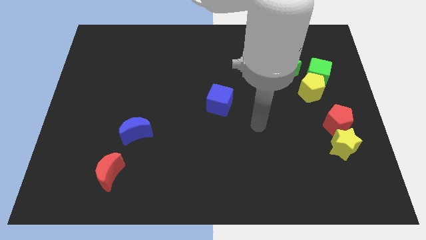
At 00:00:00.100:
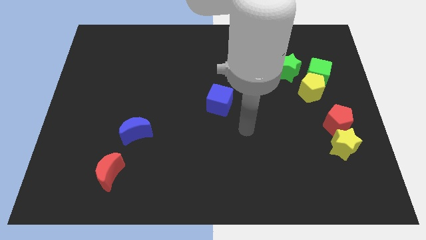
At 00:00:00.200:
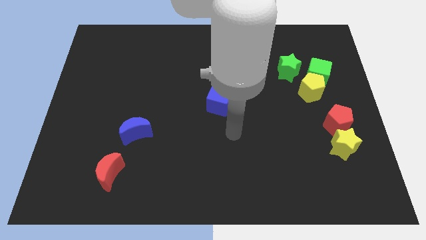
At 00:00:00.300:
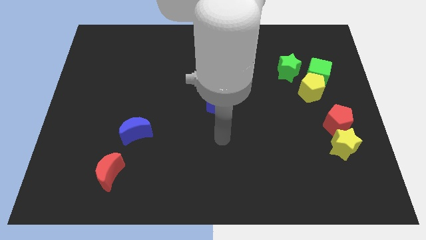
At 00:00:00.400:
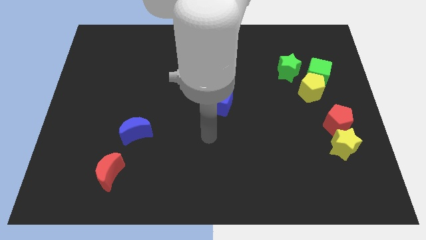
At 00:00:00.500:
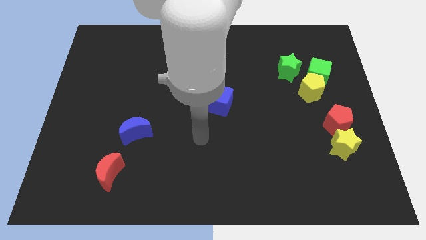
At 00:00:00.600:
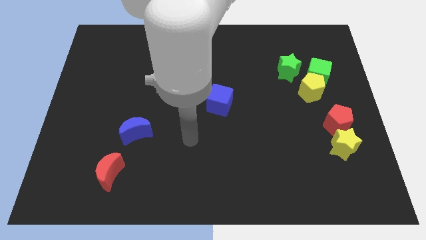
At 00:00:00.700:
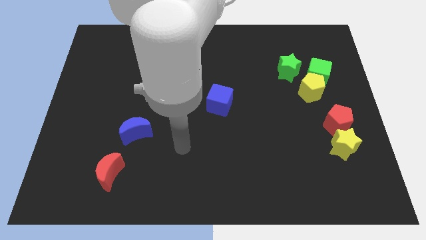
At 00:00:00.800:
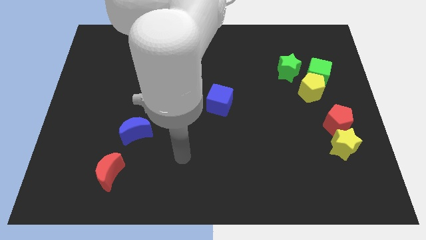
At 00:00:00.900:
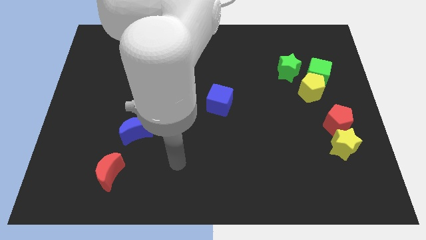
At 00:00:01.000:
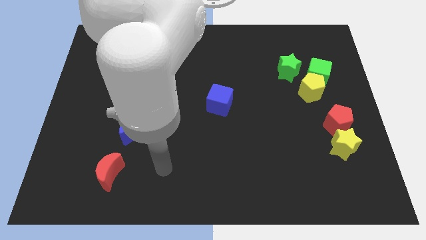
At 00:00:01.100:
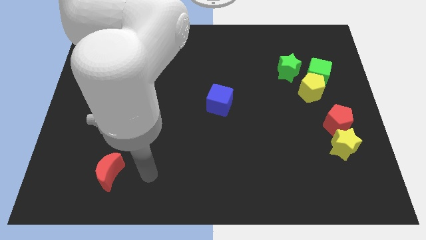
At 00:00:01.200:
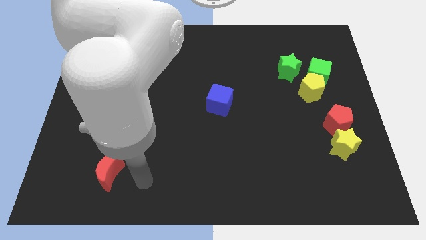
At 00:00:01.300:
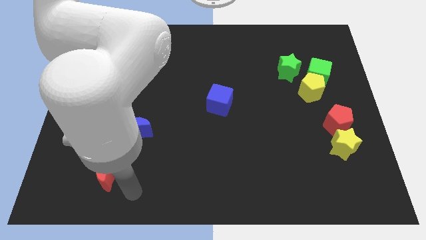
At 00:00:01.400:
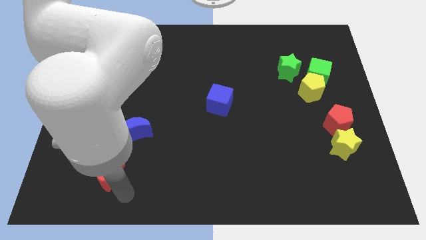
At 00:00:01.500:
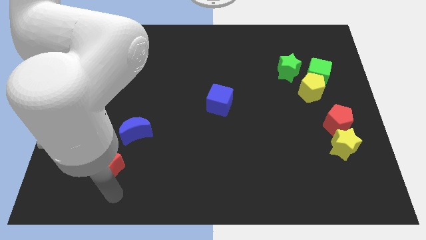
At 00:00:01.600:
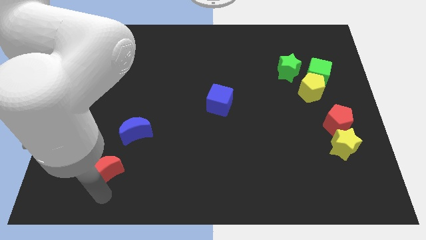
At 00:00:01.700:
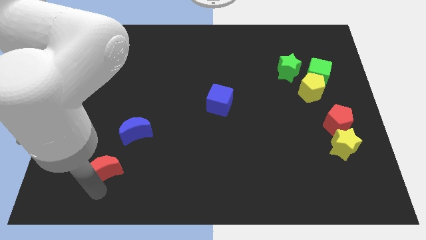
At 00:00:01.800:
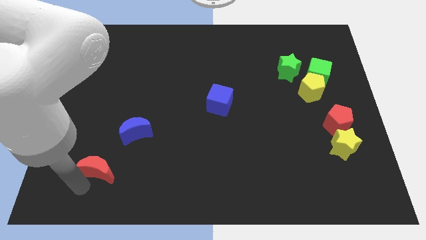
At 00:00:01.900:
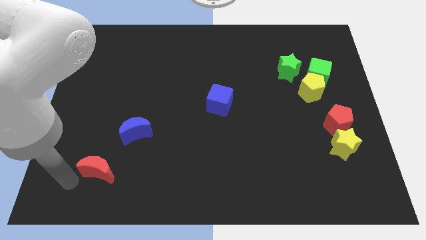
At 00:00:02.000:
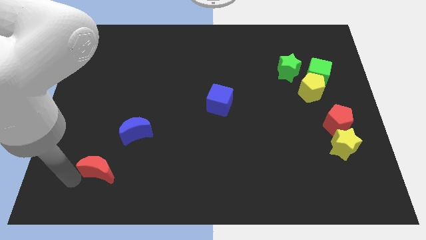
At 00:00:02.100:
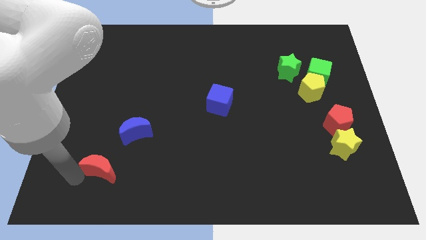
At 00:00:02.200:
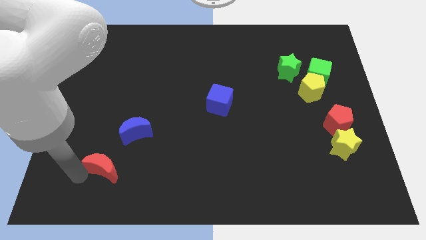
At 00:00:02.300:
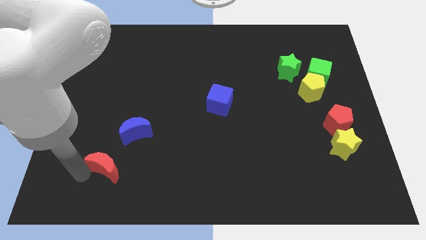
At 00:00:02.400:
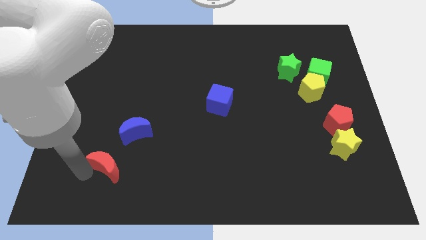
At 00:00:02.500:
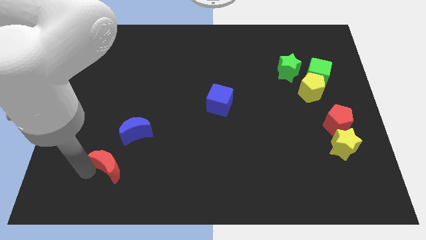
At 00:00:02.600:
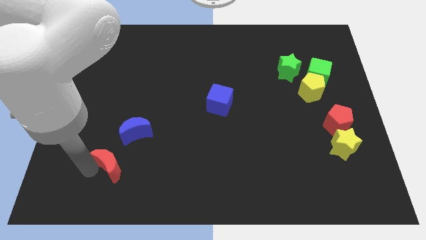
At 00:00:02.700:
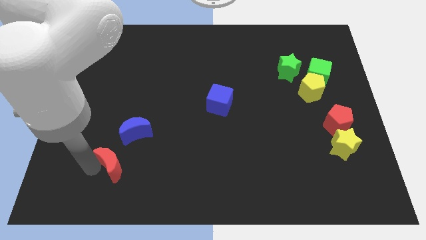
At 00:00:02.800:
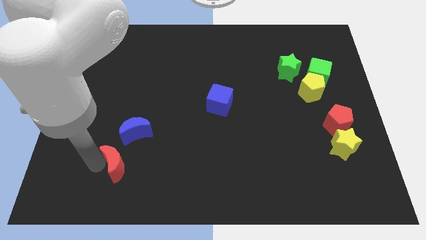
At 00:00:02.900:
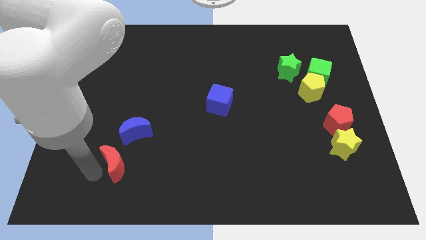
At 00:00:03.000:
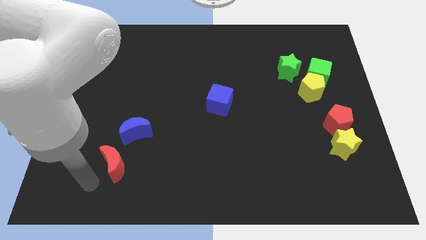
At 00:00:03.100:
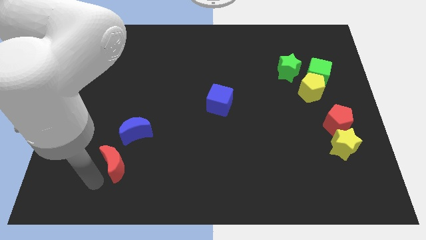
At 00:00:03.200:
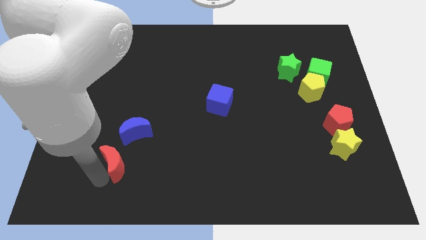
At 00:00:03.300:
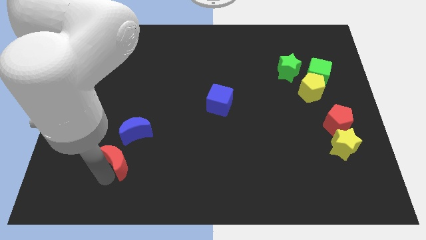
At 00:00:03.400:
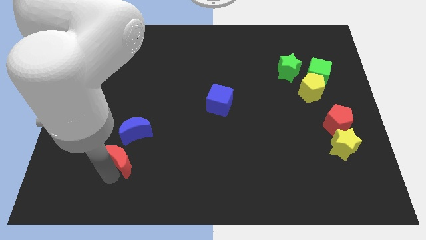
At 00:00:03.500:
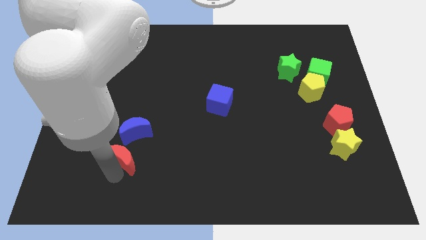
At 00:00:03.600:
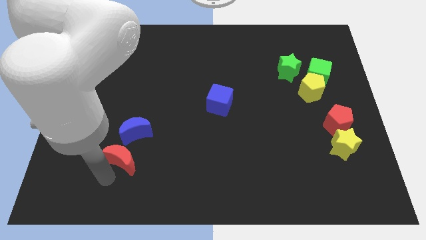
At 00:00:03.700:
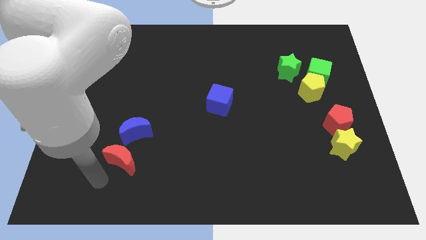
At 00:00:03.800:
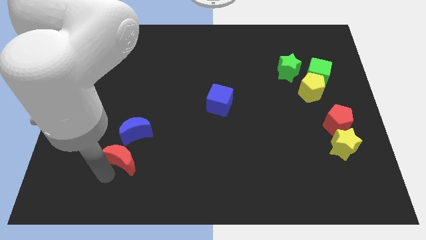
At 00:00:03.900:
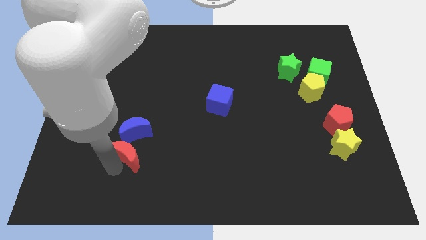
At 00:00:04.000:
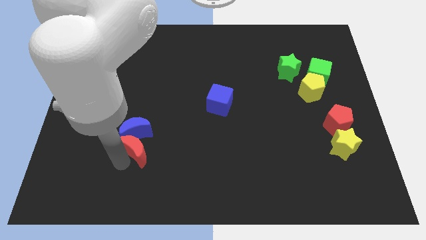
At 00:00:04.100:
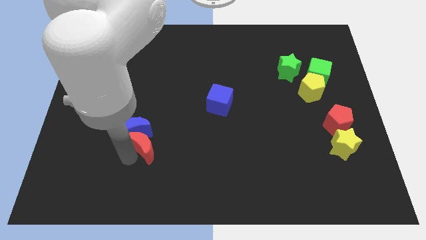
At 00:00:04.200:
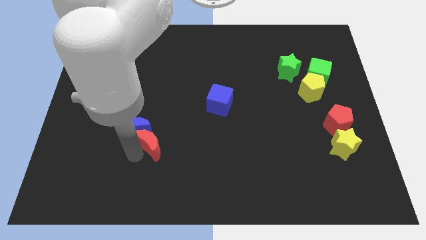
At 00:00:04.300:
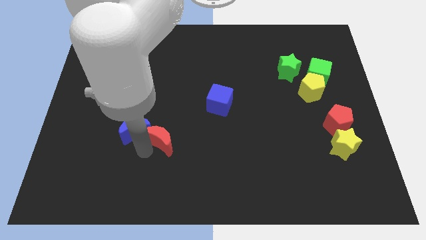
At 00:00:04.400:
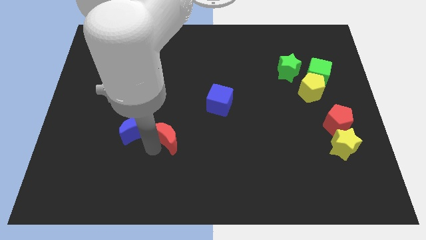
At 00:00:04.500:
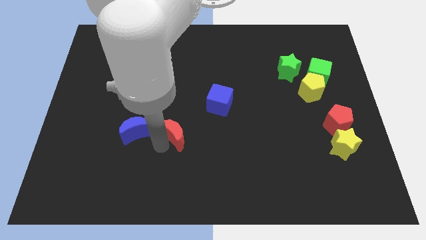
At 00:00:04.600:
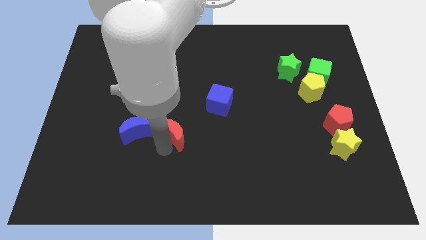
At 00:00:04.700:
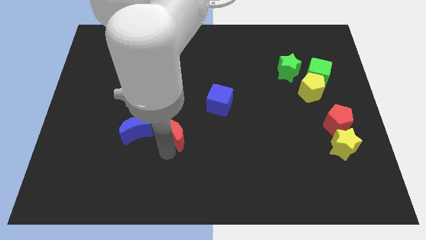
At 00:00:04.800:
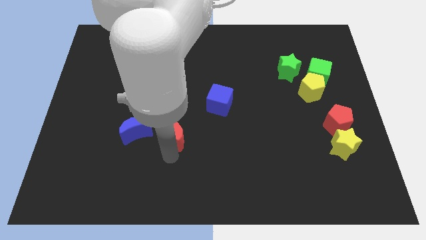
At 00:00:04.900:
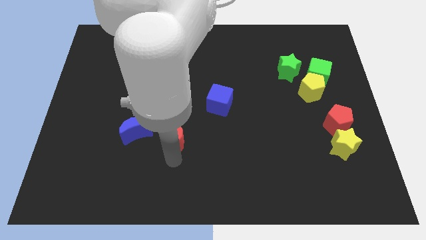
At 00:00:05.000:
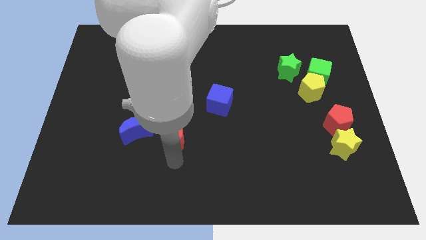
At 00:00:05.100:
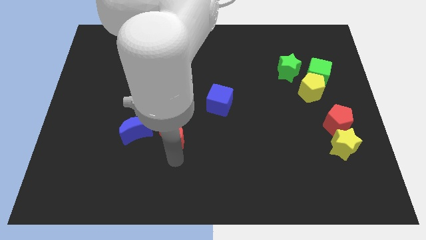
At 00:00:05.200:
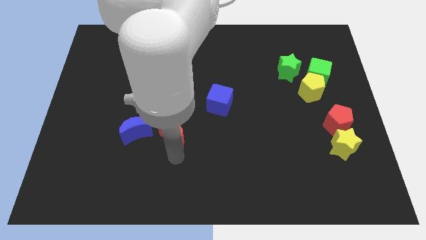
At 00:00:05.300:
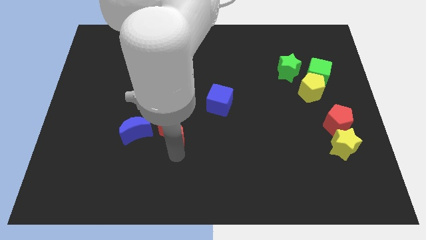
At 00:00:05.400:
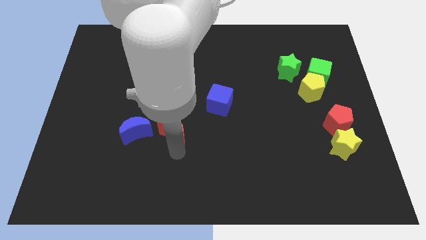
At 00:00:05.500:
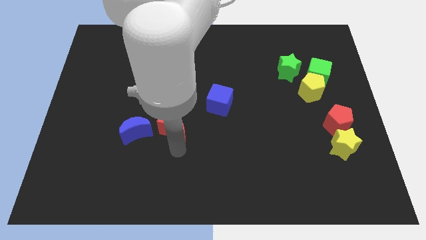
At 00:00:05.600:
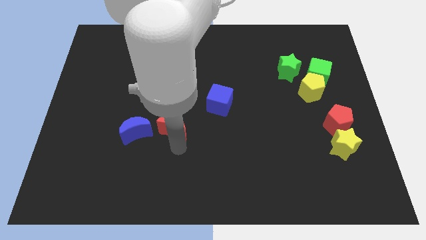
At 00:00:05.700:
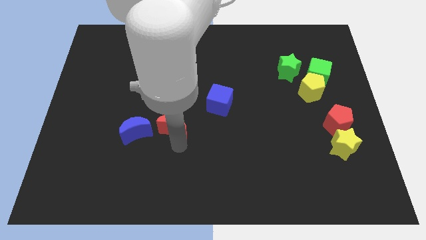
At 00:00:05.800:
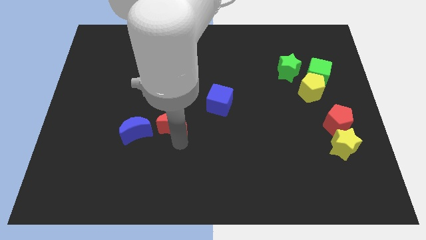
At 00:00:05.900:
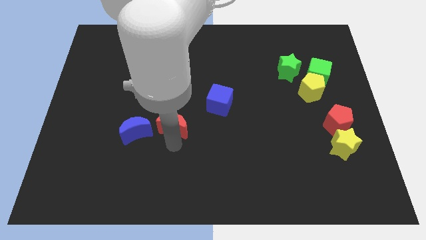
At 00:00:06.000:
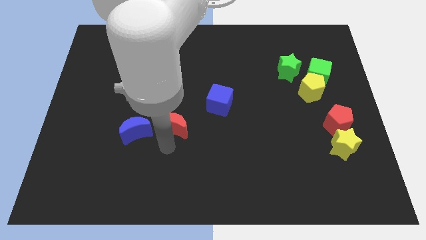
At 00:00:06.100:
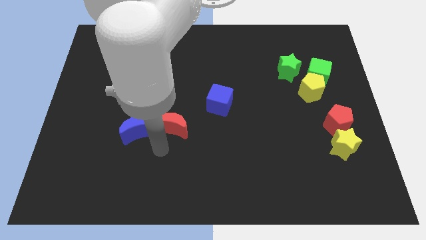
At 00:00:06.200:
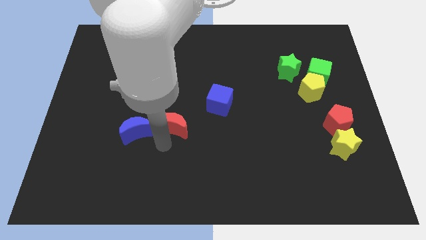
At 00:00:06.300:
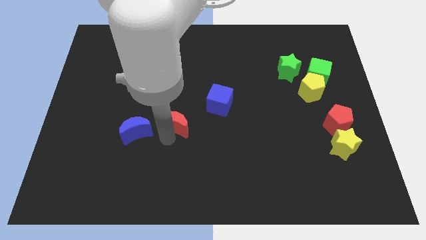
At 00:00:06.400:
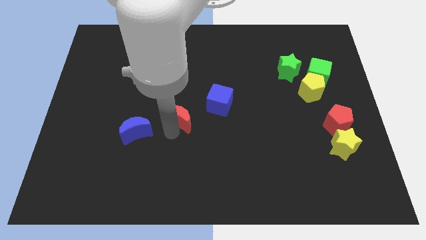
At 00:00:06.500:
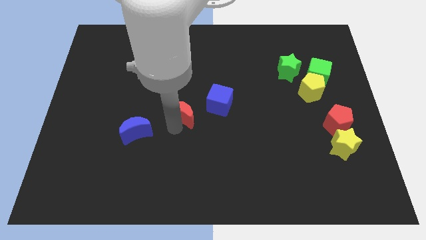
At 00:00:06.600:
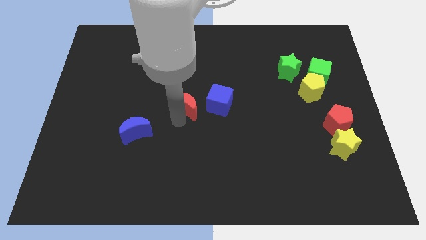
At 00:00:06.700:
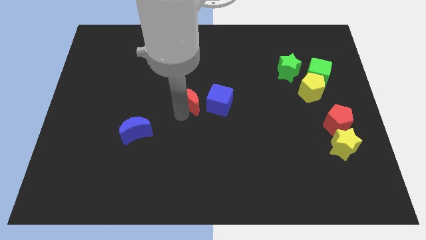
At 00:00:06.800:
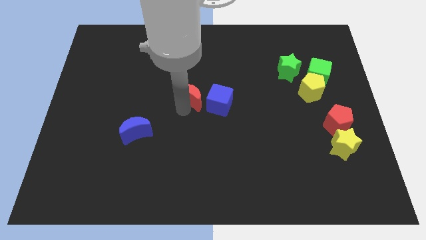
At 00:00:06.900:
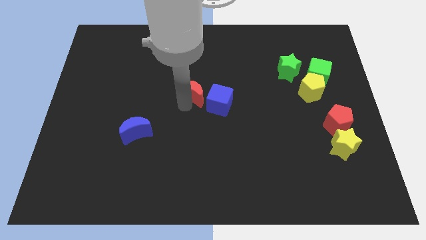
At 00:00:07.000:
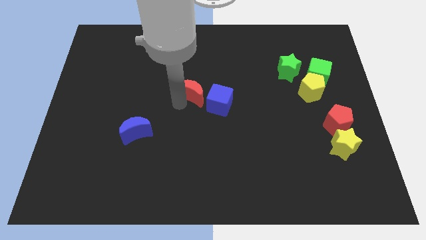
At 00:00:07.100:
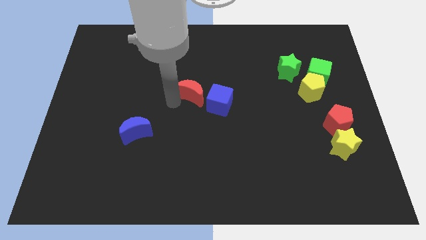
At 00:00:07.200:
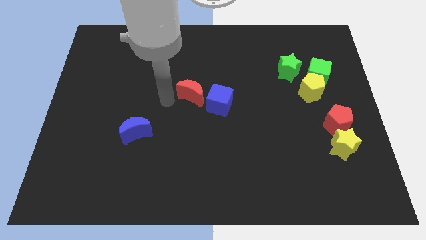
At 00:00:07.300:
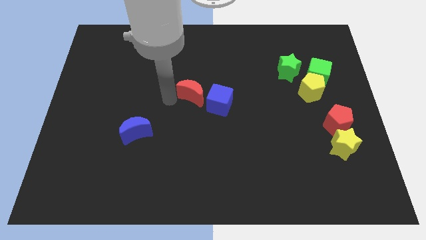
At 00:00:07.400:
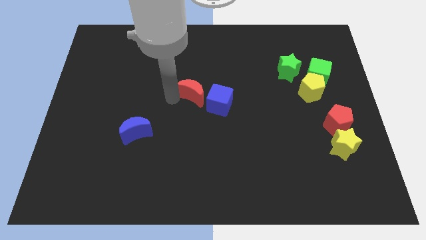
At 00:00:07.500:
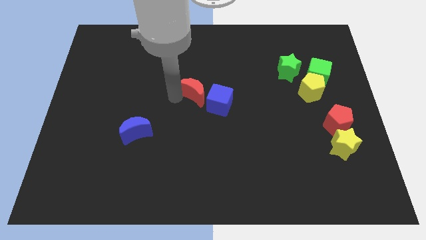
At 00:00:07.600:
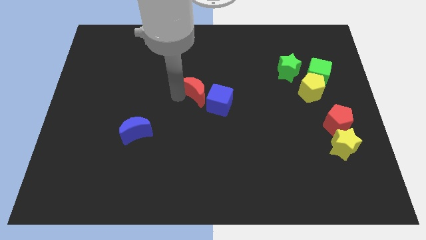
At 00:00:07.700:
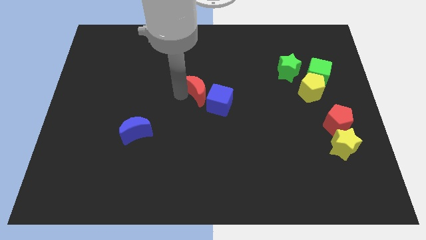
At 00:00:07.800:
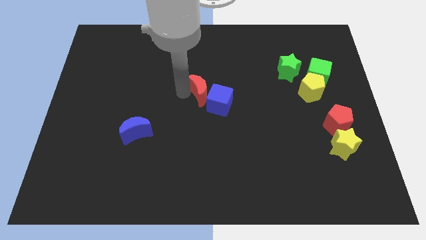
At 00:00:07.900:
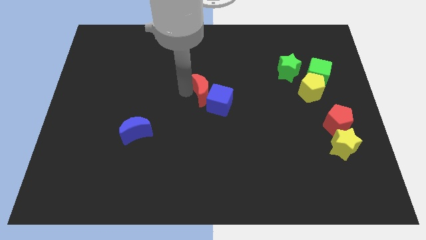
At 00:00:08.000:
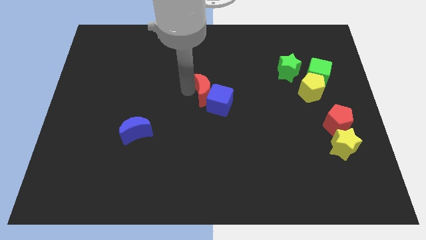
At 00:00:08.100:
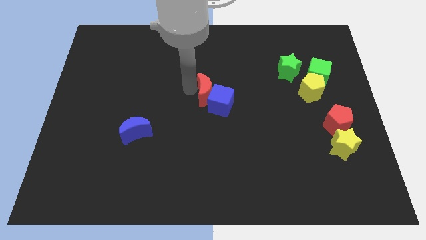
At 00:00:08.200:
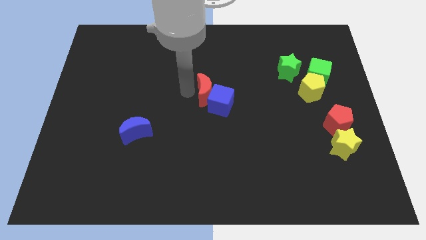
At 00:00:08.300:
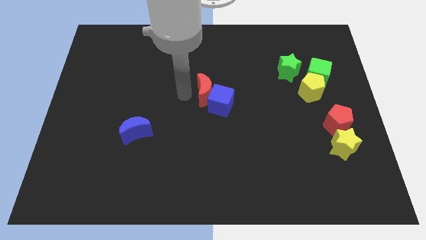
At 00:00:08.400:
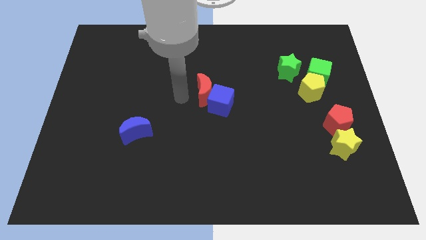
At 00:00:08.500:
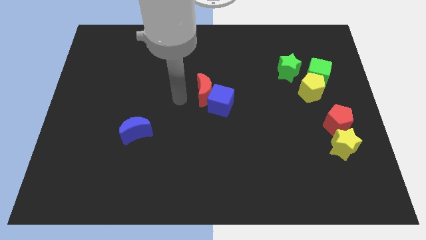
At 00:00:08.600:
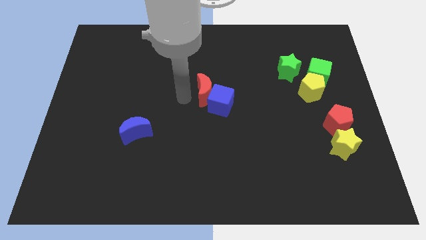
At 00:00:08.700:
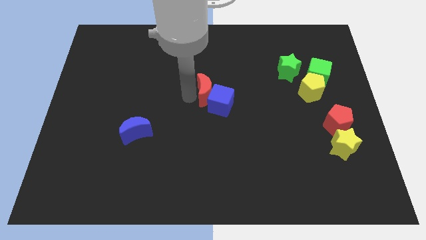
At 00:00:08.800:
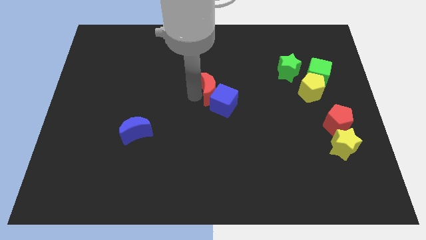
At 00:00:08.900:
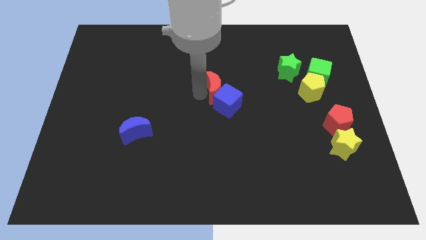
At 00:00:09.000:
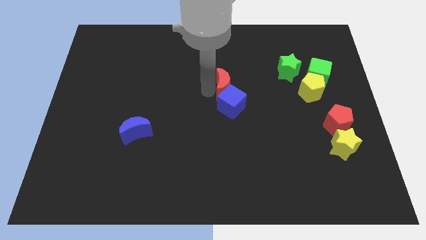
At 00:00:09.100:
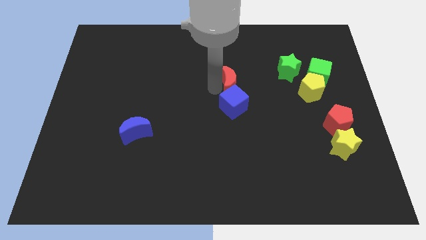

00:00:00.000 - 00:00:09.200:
slide the red moon to the top right of the blue cube
